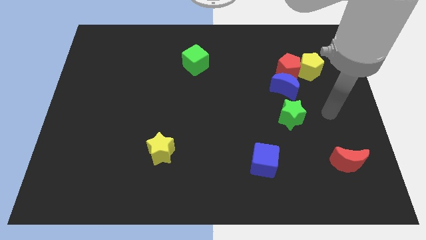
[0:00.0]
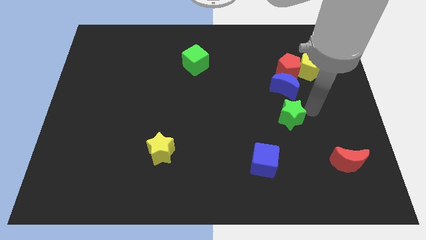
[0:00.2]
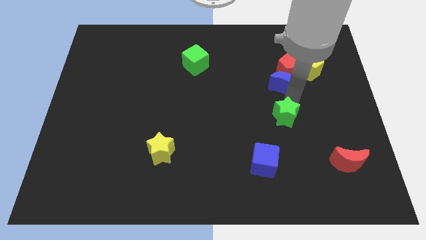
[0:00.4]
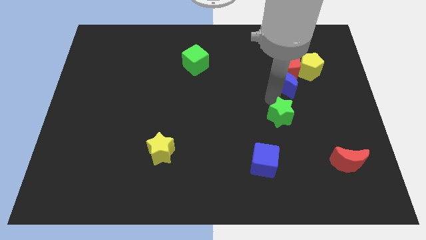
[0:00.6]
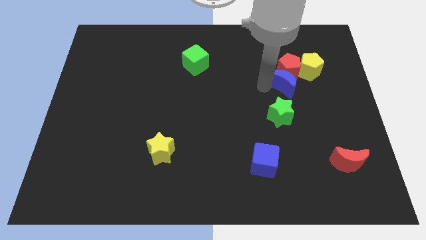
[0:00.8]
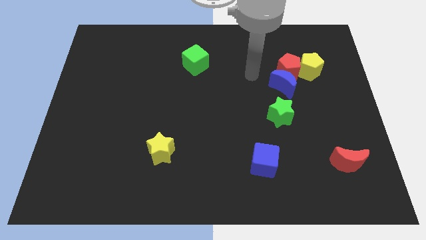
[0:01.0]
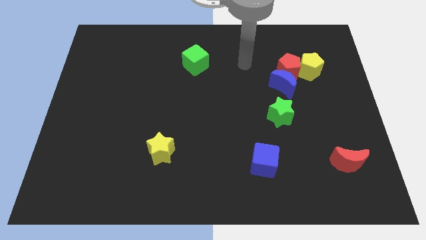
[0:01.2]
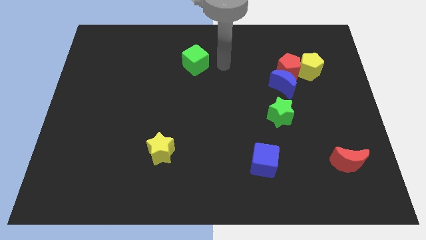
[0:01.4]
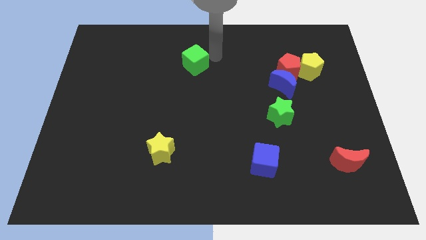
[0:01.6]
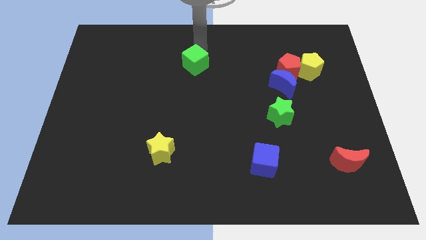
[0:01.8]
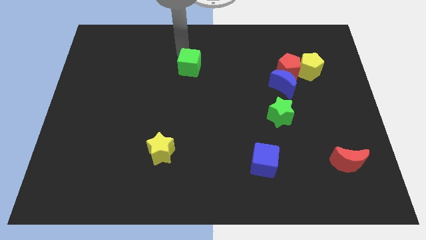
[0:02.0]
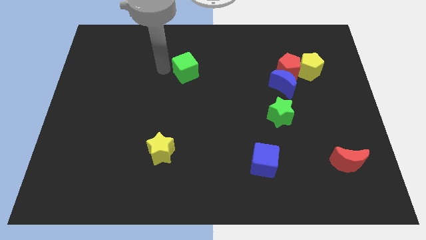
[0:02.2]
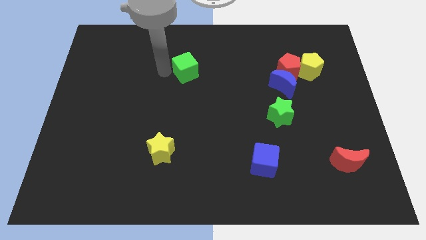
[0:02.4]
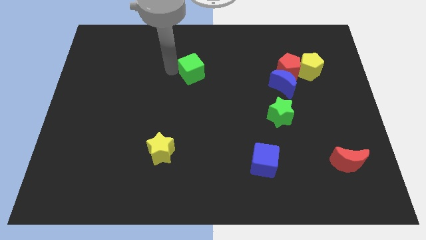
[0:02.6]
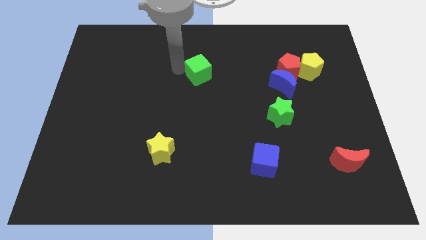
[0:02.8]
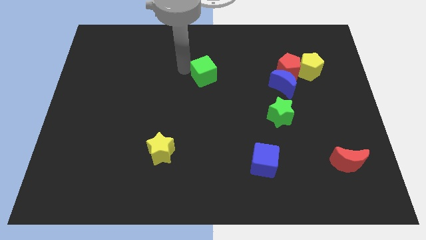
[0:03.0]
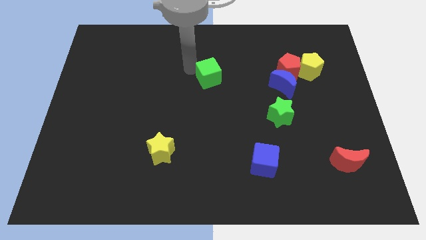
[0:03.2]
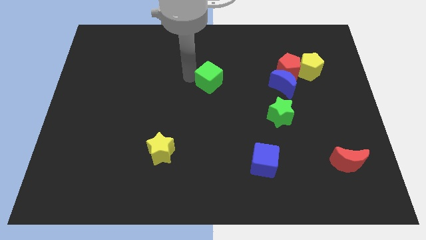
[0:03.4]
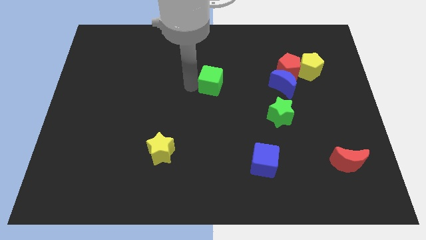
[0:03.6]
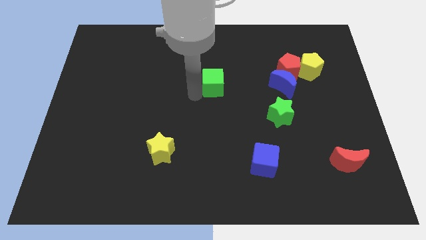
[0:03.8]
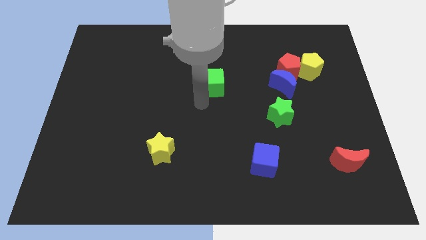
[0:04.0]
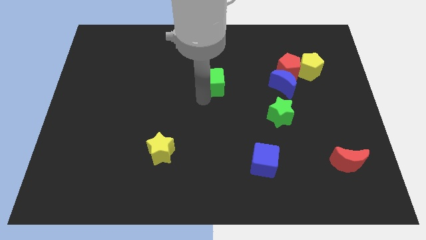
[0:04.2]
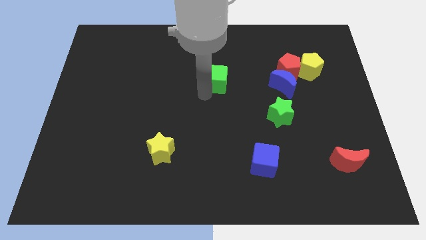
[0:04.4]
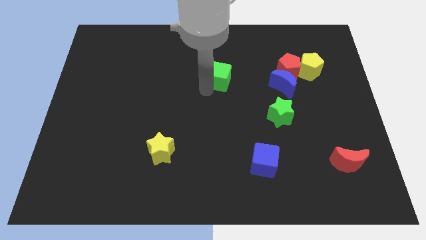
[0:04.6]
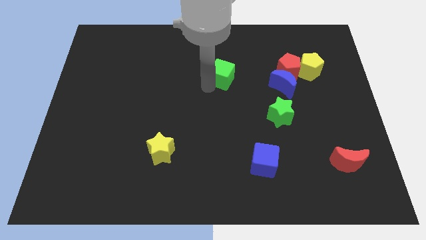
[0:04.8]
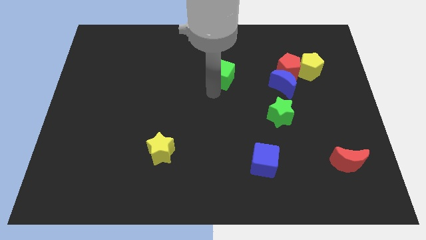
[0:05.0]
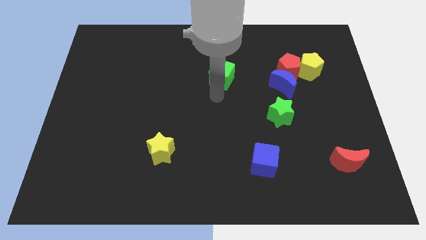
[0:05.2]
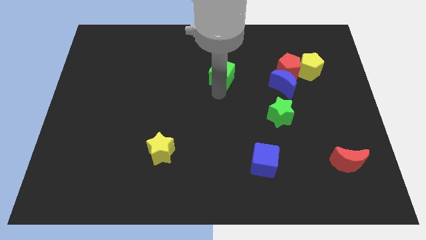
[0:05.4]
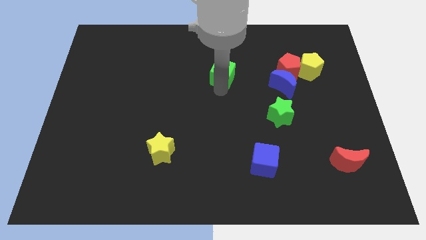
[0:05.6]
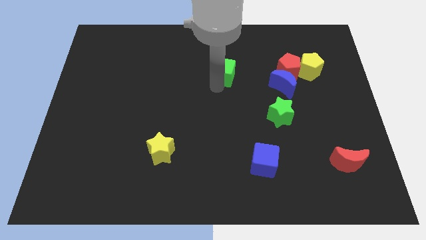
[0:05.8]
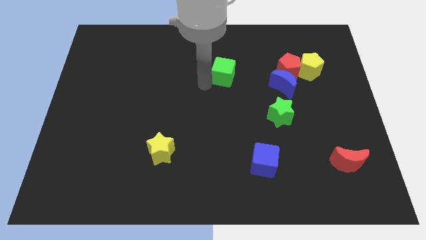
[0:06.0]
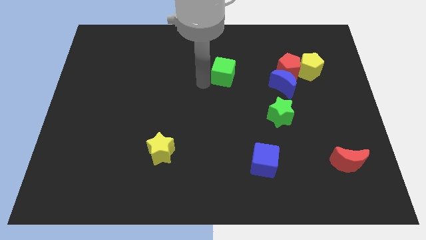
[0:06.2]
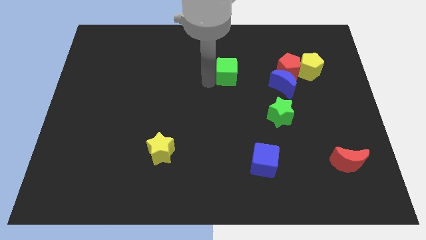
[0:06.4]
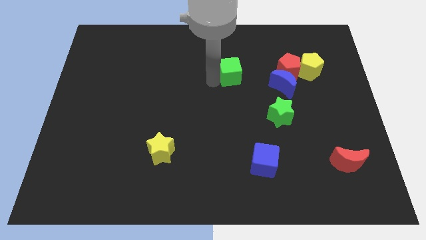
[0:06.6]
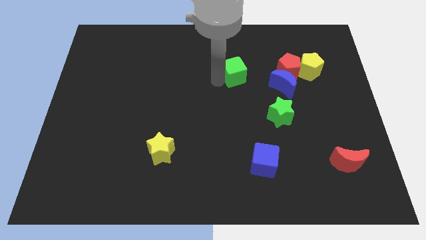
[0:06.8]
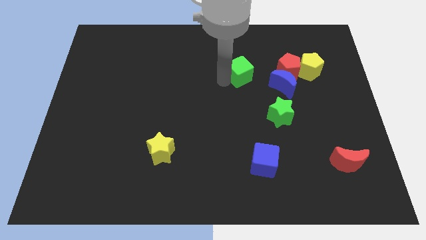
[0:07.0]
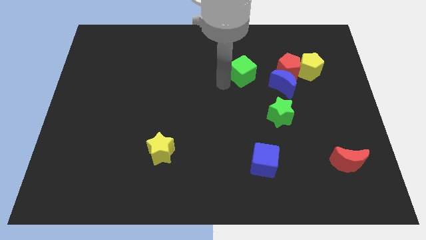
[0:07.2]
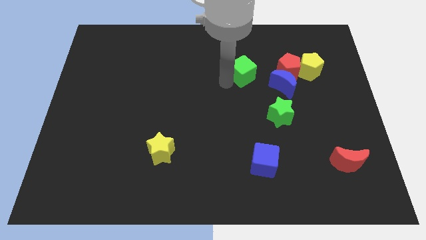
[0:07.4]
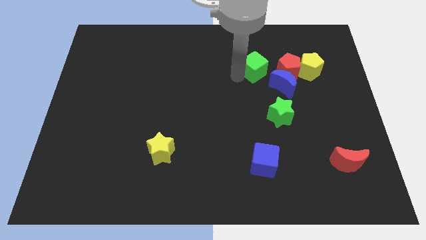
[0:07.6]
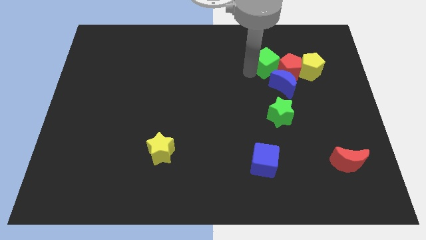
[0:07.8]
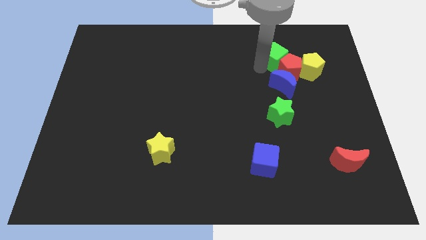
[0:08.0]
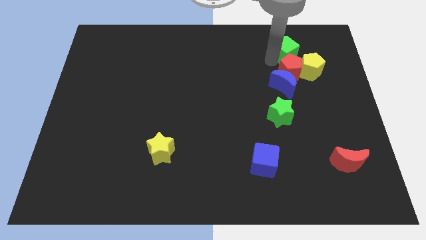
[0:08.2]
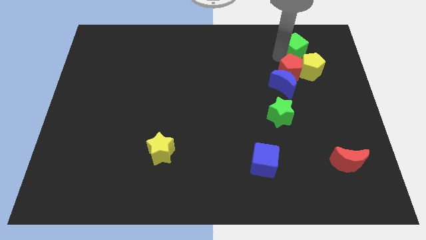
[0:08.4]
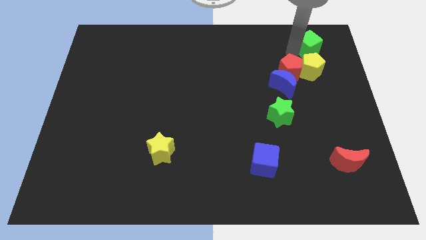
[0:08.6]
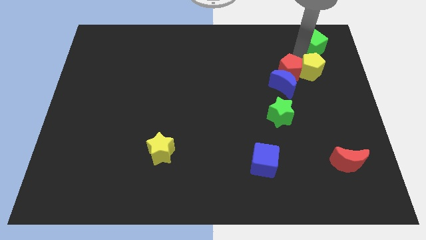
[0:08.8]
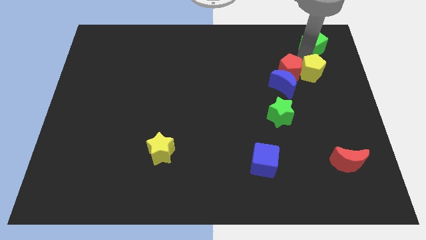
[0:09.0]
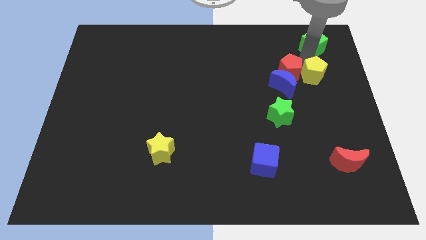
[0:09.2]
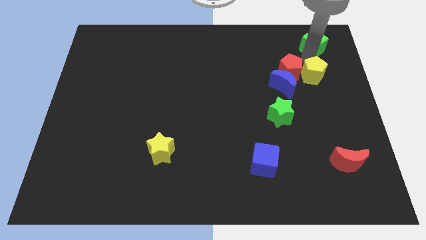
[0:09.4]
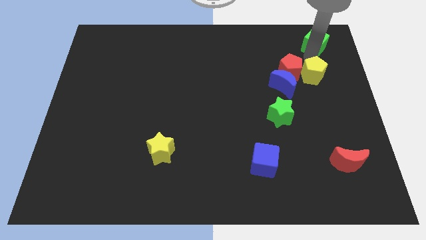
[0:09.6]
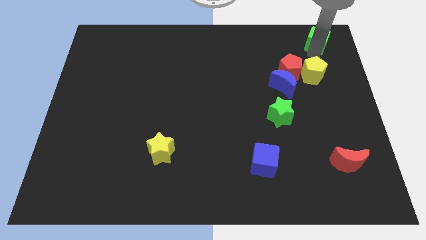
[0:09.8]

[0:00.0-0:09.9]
move the green cube to the top right of the board

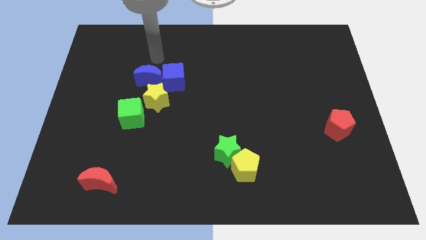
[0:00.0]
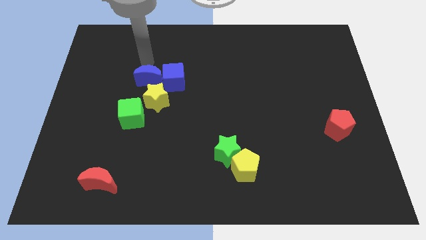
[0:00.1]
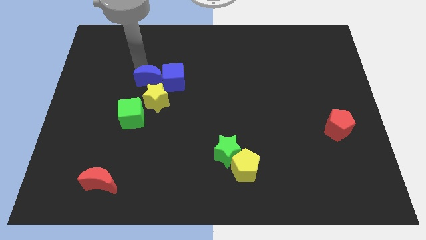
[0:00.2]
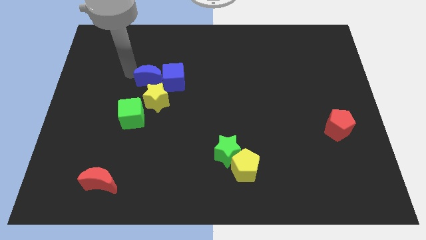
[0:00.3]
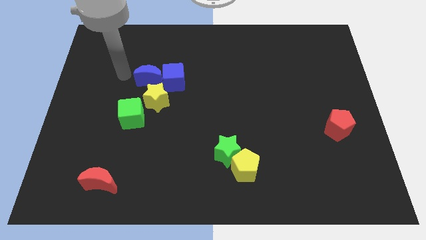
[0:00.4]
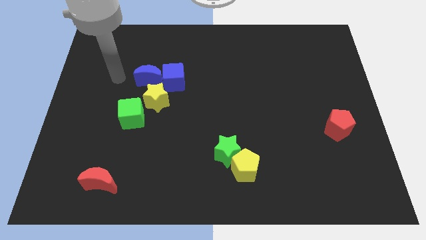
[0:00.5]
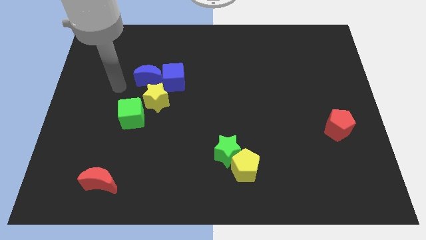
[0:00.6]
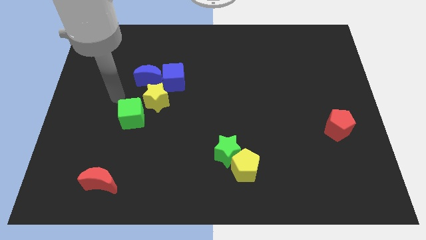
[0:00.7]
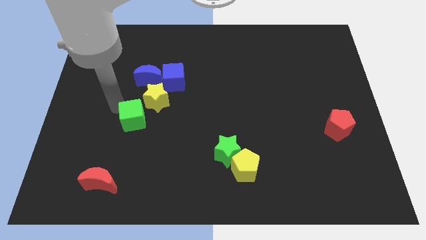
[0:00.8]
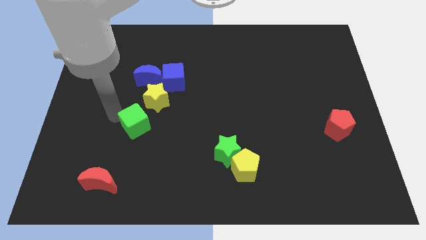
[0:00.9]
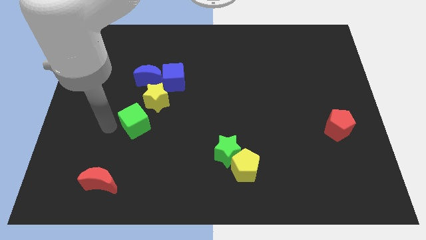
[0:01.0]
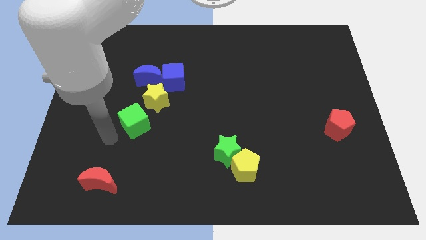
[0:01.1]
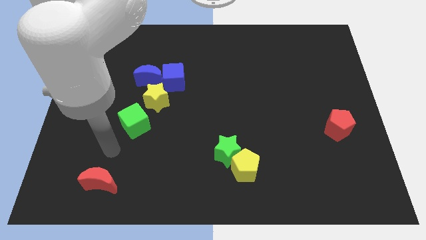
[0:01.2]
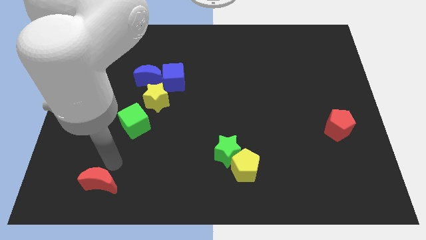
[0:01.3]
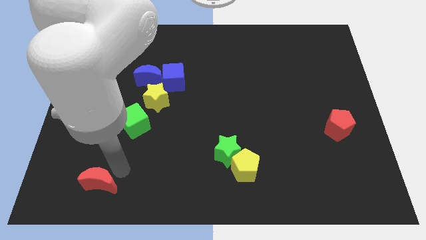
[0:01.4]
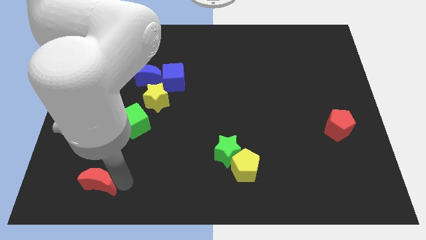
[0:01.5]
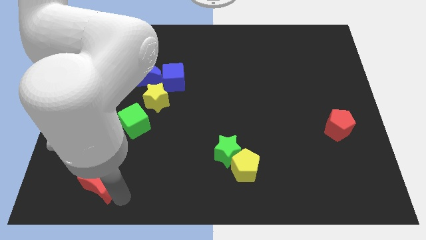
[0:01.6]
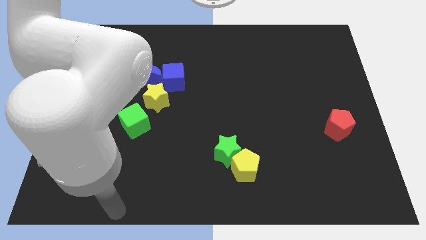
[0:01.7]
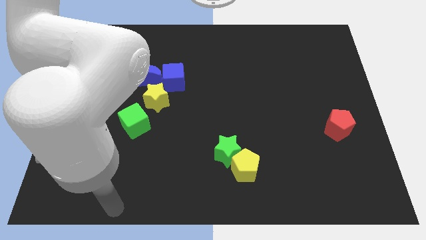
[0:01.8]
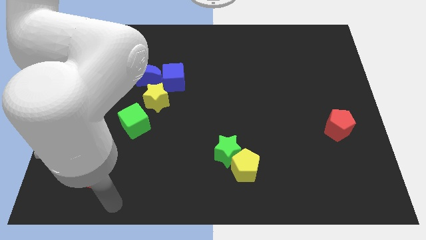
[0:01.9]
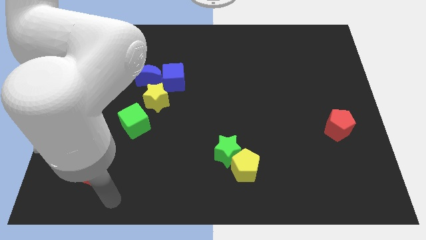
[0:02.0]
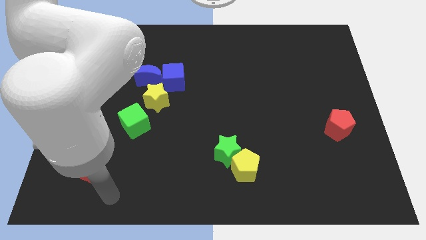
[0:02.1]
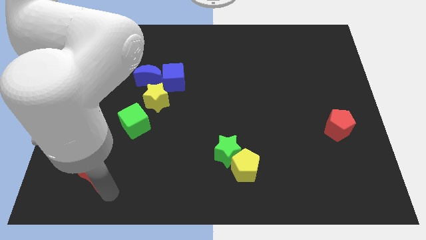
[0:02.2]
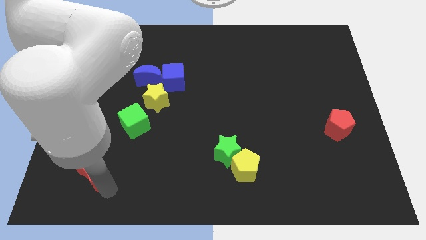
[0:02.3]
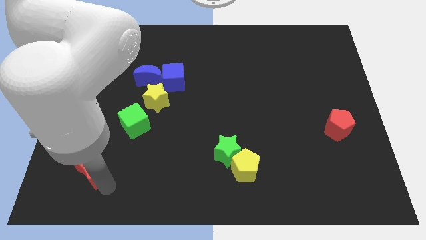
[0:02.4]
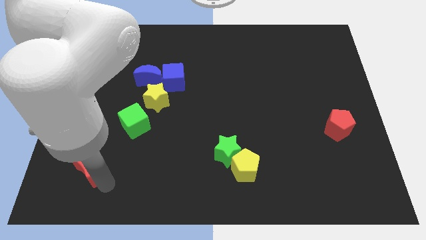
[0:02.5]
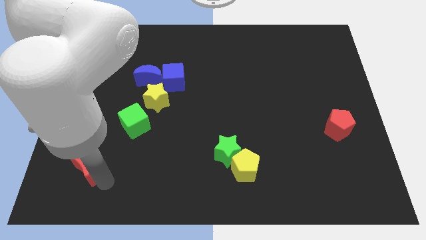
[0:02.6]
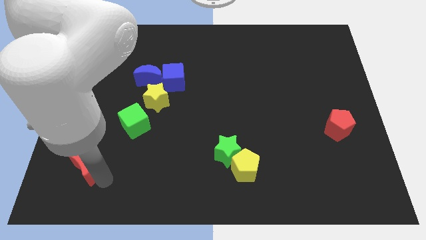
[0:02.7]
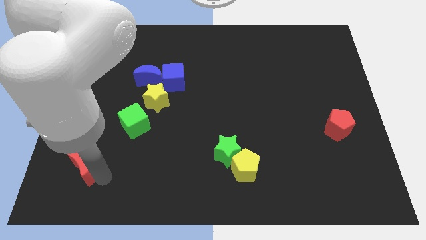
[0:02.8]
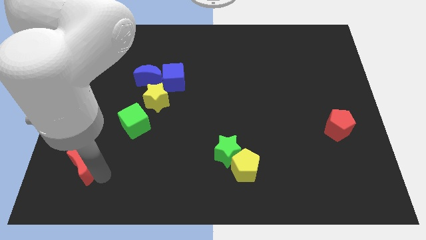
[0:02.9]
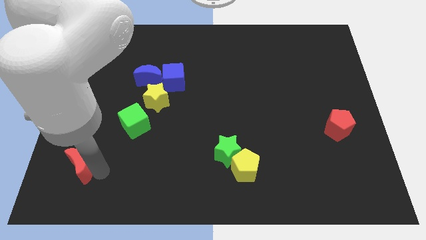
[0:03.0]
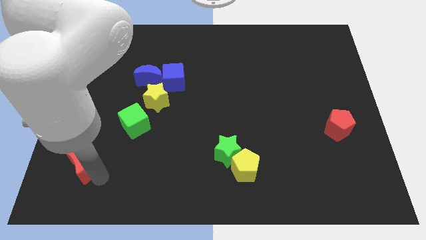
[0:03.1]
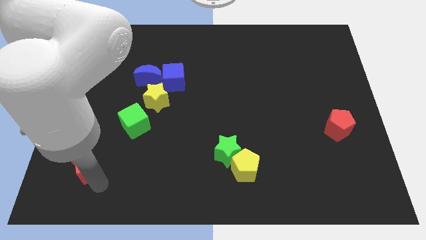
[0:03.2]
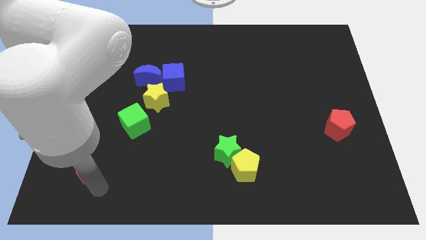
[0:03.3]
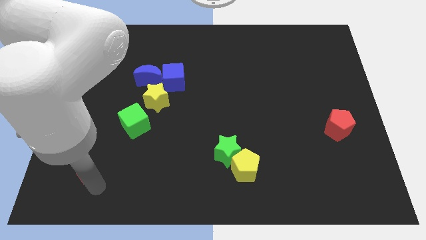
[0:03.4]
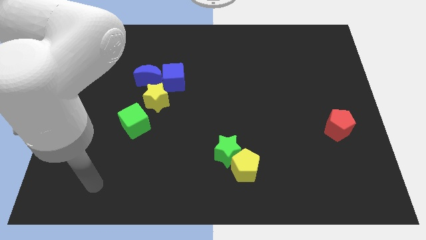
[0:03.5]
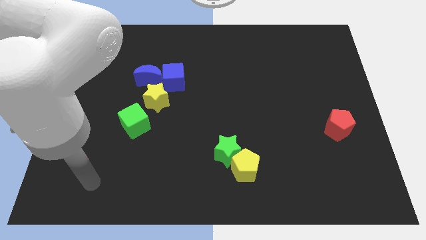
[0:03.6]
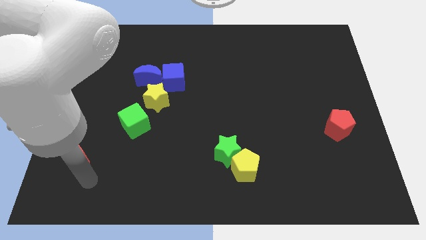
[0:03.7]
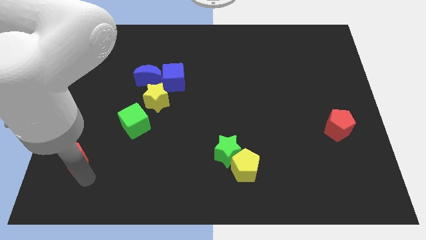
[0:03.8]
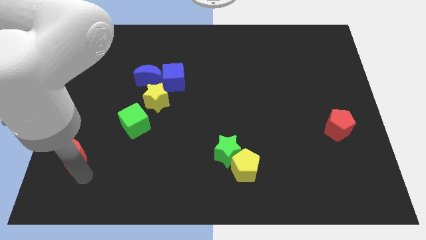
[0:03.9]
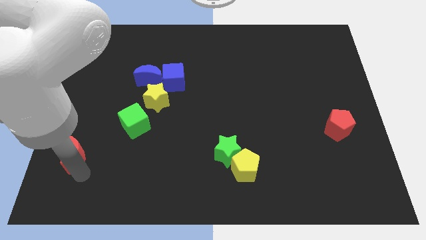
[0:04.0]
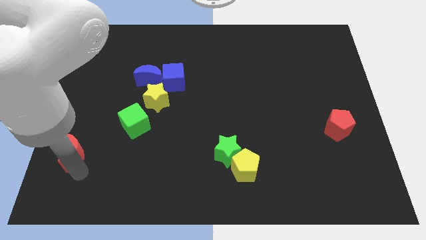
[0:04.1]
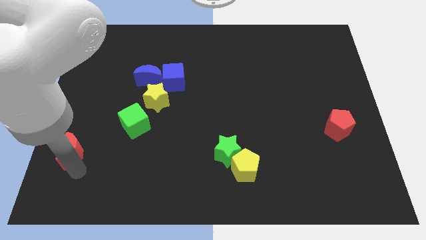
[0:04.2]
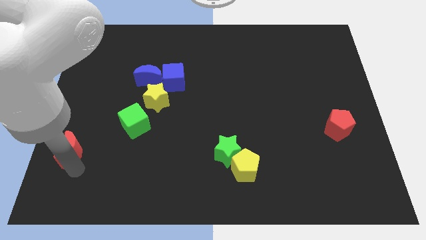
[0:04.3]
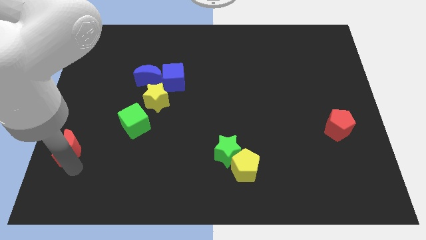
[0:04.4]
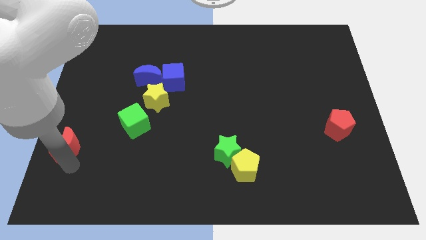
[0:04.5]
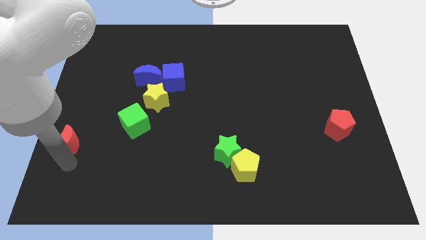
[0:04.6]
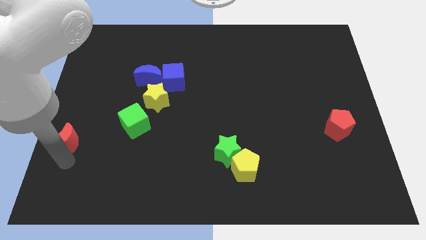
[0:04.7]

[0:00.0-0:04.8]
put the red moon to the left side of the board
